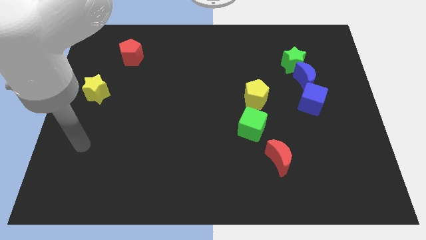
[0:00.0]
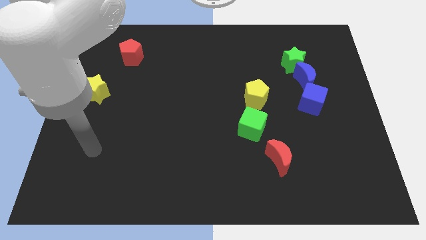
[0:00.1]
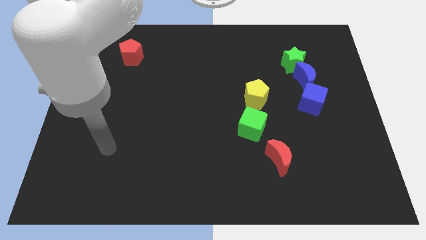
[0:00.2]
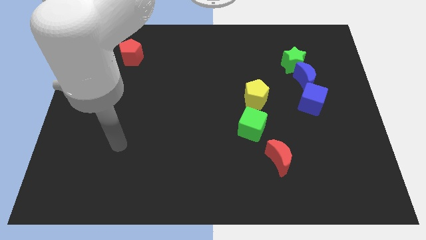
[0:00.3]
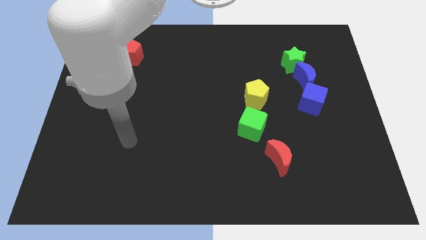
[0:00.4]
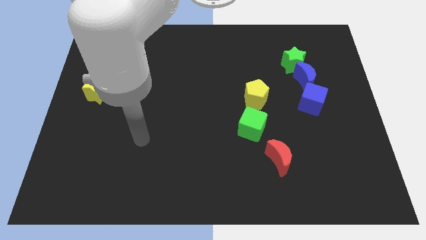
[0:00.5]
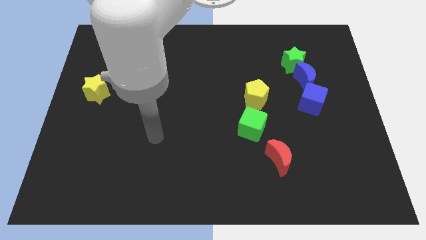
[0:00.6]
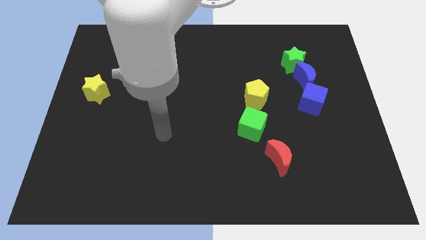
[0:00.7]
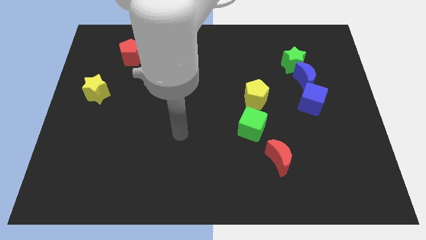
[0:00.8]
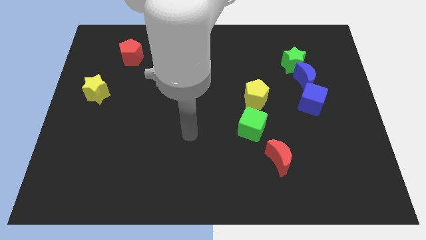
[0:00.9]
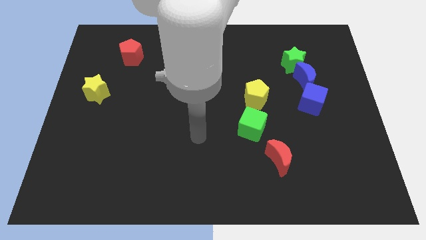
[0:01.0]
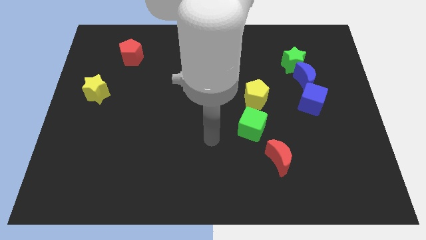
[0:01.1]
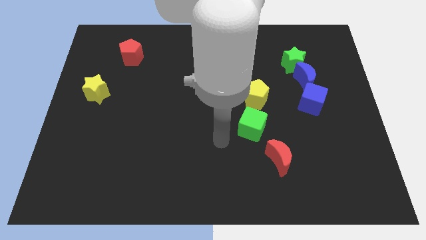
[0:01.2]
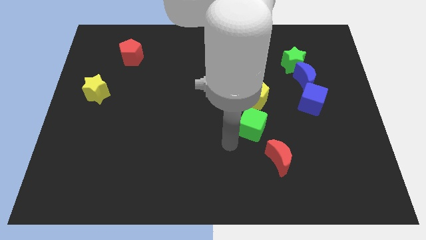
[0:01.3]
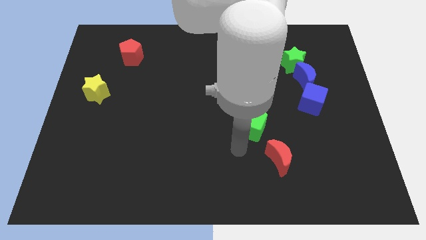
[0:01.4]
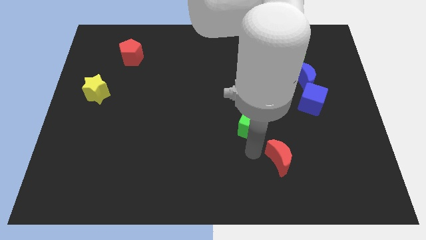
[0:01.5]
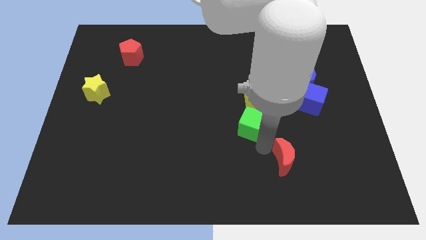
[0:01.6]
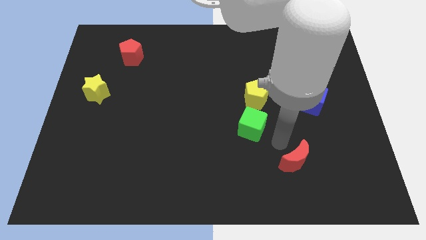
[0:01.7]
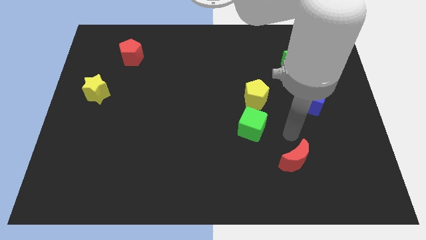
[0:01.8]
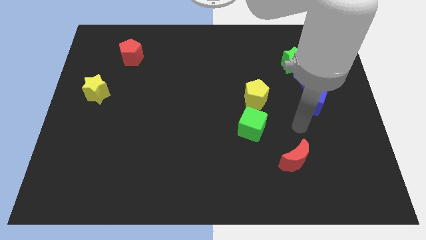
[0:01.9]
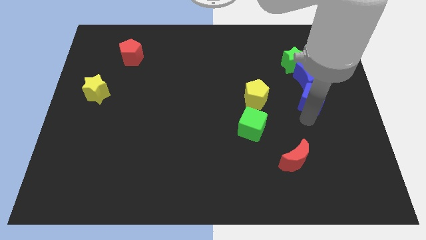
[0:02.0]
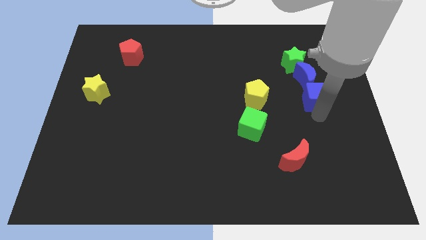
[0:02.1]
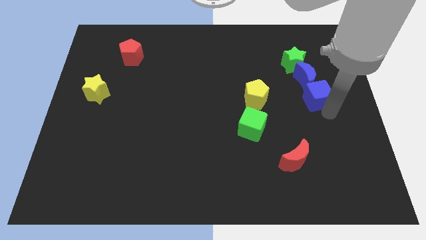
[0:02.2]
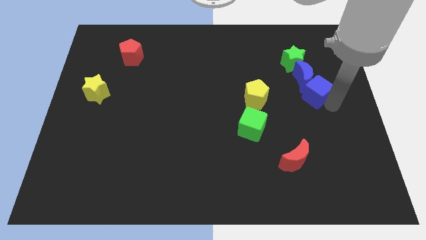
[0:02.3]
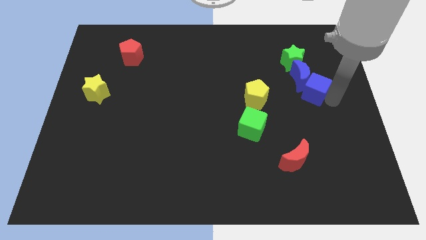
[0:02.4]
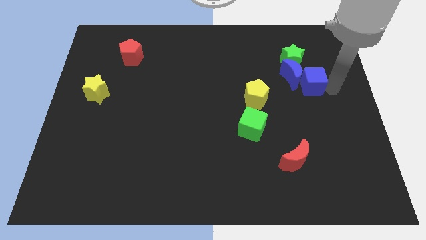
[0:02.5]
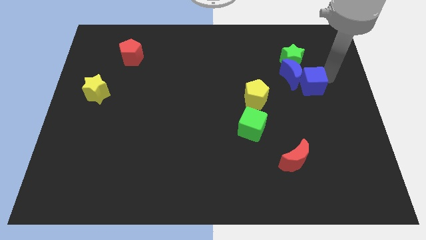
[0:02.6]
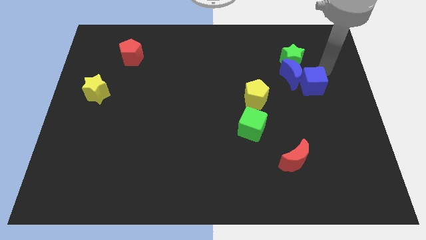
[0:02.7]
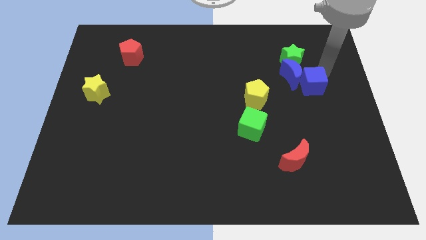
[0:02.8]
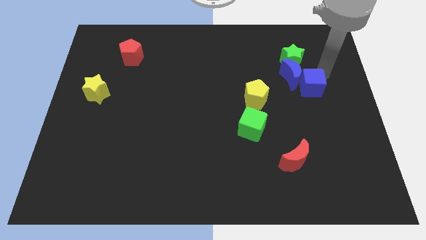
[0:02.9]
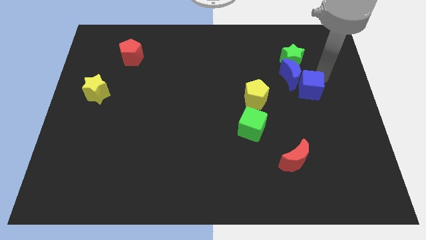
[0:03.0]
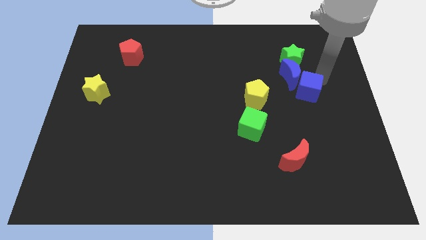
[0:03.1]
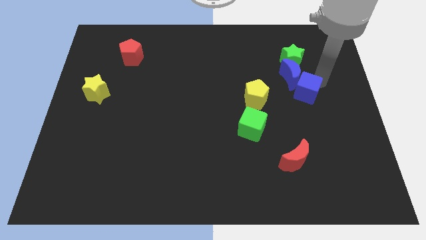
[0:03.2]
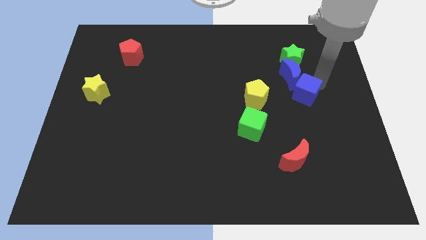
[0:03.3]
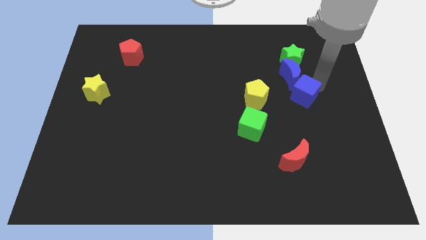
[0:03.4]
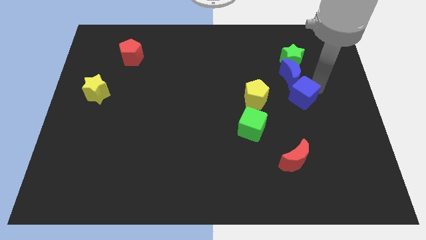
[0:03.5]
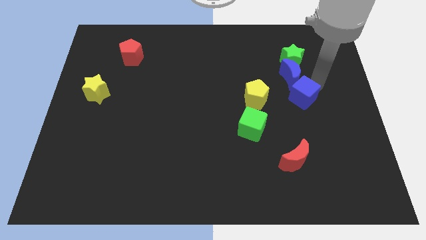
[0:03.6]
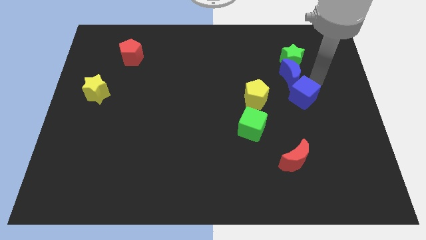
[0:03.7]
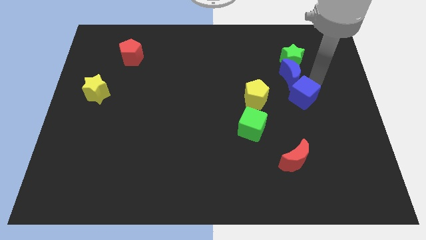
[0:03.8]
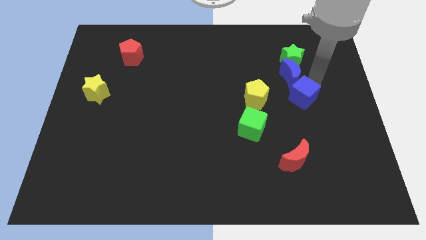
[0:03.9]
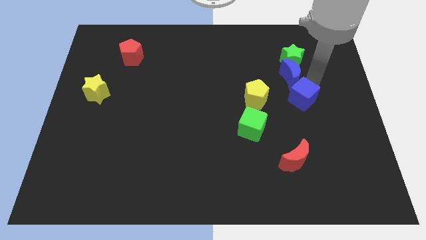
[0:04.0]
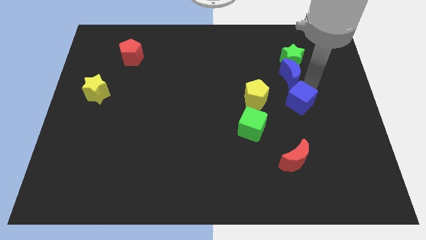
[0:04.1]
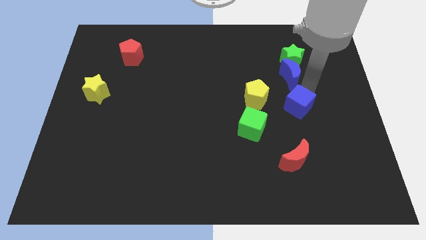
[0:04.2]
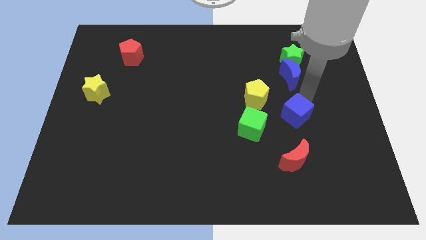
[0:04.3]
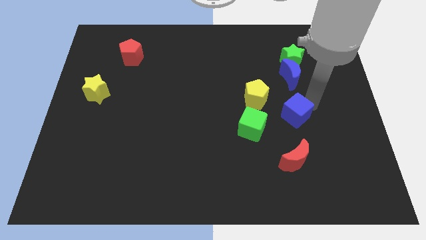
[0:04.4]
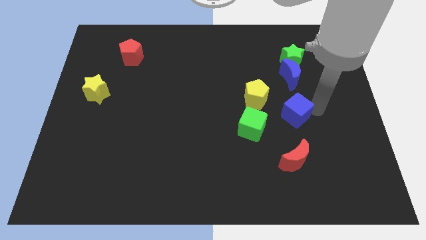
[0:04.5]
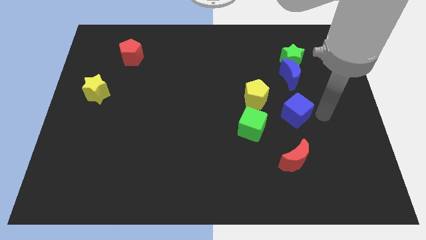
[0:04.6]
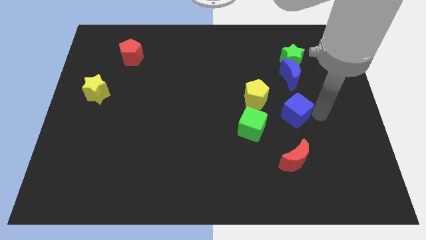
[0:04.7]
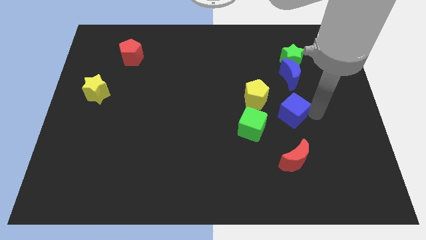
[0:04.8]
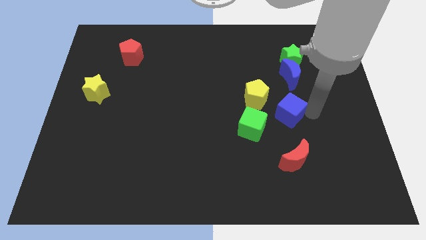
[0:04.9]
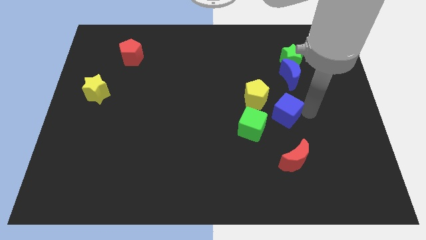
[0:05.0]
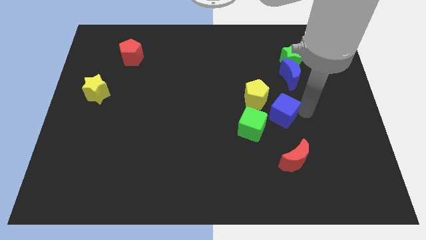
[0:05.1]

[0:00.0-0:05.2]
move the blue cube to the left somewhat

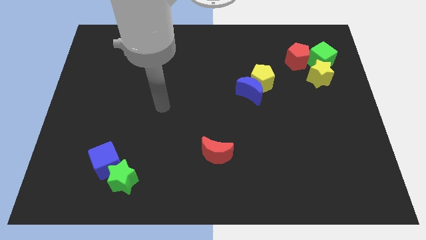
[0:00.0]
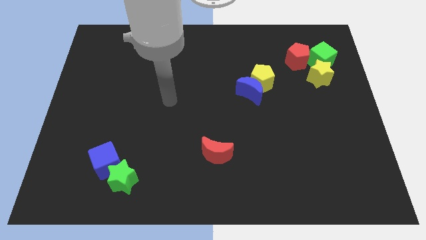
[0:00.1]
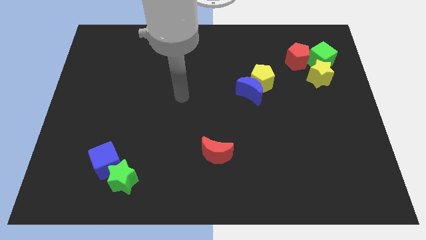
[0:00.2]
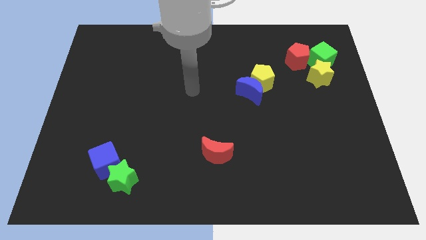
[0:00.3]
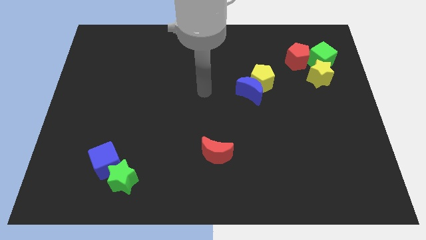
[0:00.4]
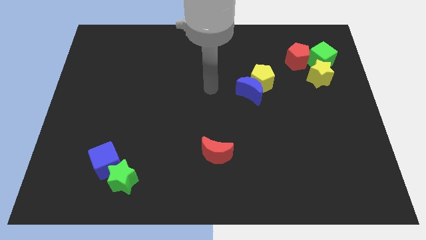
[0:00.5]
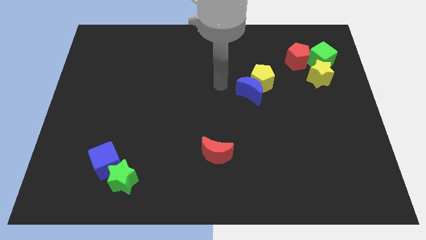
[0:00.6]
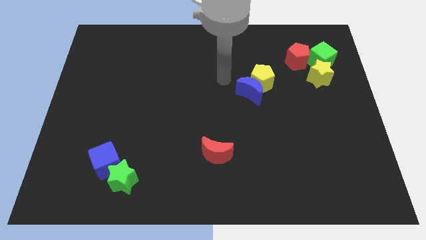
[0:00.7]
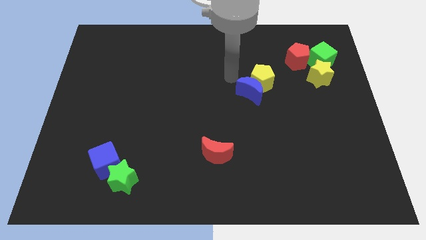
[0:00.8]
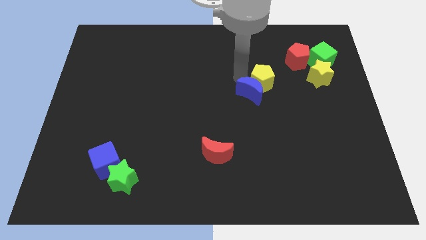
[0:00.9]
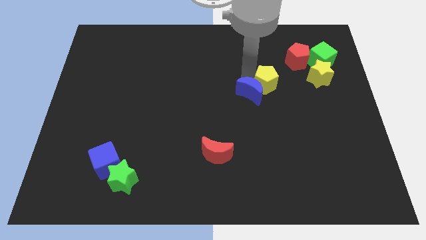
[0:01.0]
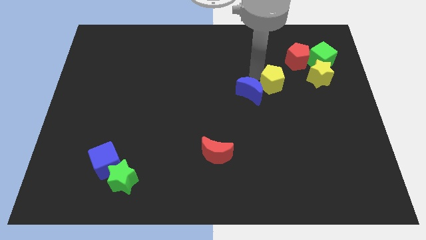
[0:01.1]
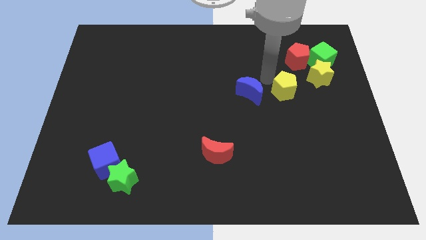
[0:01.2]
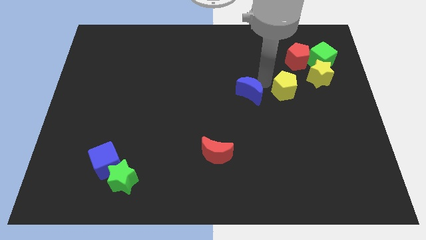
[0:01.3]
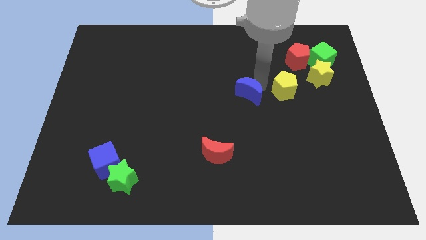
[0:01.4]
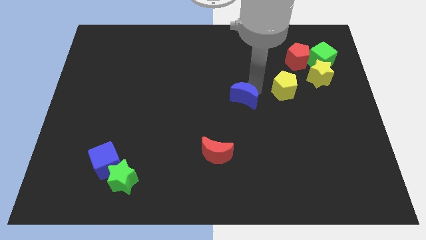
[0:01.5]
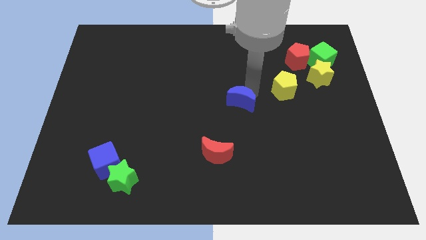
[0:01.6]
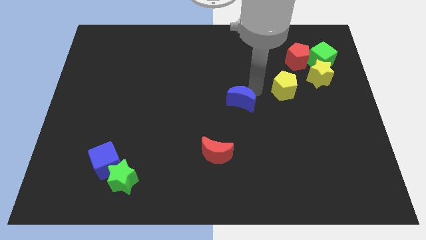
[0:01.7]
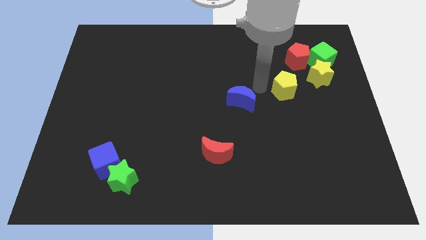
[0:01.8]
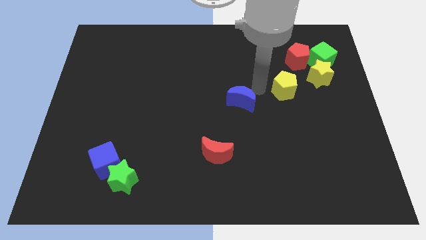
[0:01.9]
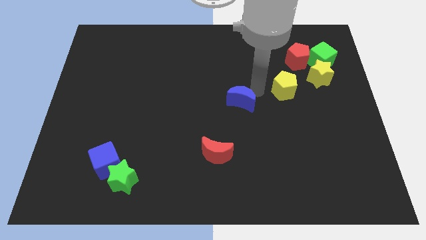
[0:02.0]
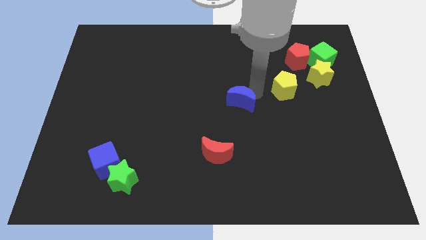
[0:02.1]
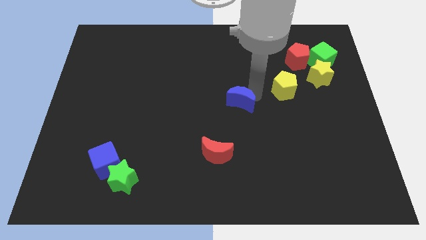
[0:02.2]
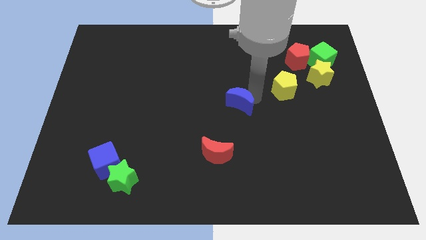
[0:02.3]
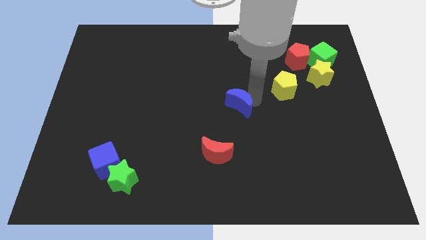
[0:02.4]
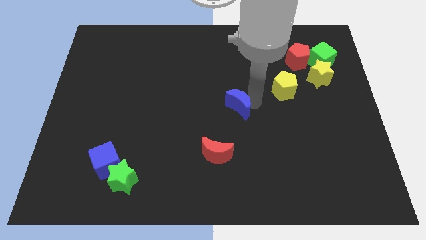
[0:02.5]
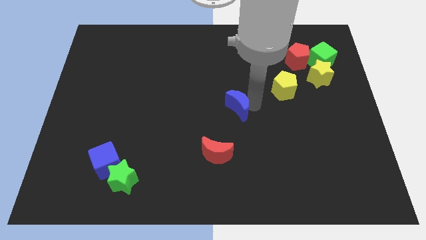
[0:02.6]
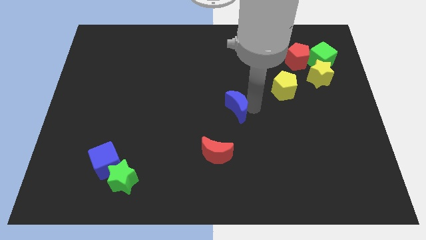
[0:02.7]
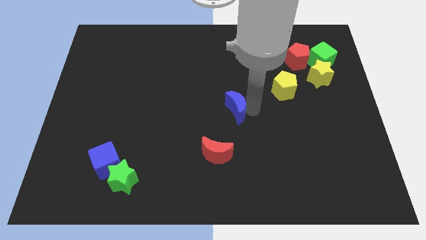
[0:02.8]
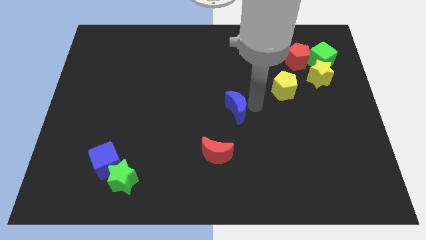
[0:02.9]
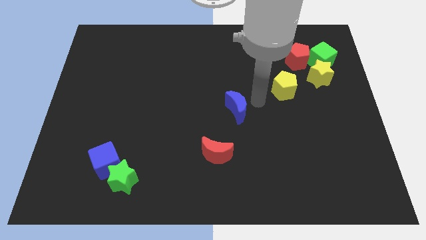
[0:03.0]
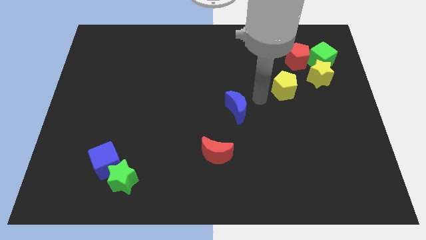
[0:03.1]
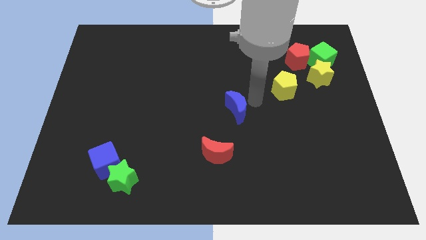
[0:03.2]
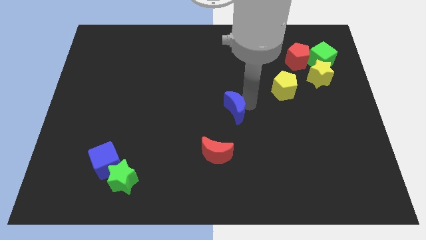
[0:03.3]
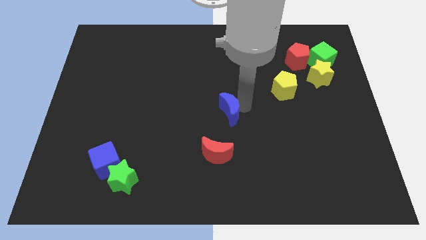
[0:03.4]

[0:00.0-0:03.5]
slightly push the blue moon downwards and to the left diagonally
